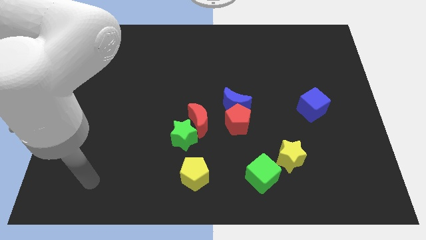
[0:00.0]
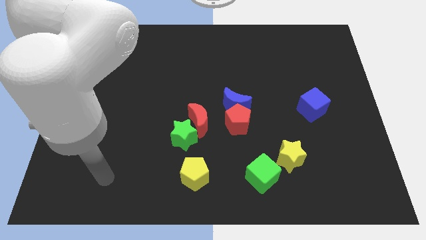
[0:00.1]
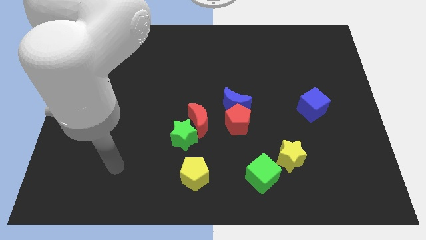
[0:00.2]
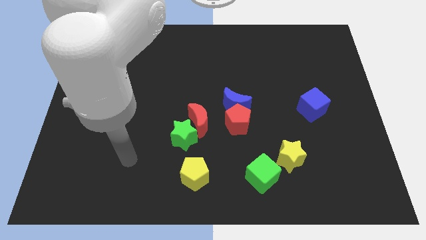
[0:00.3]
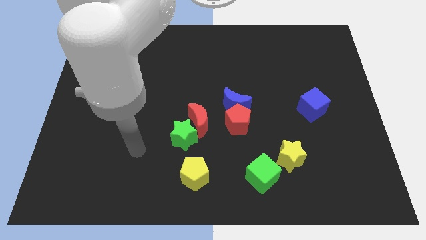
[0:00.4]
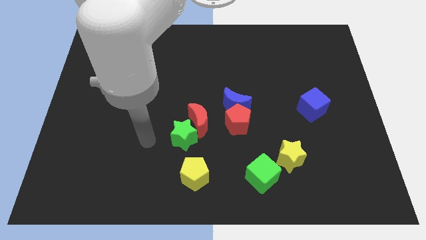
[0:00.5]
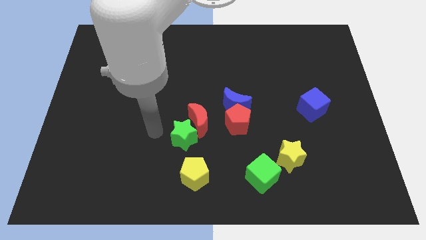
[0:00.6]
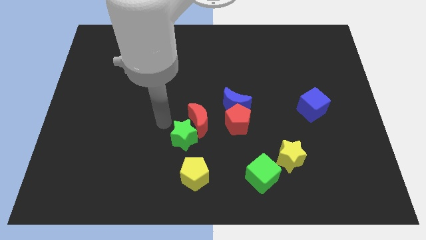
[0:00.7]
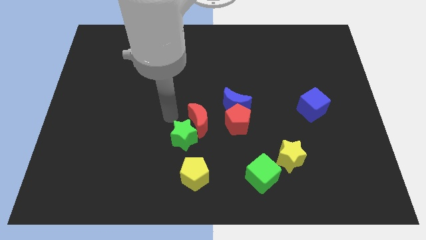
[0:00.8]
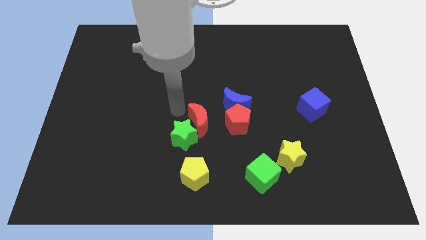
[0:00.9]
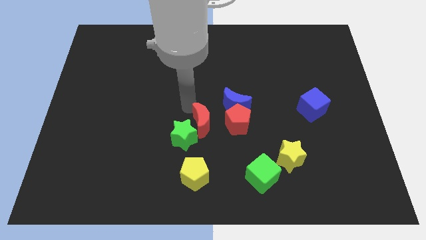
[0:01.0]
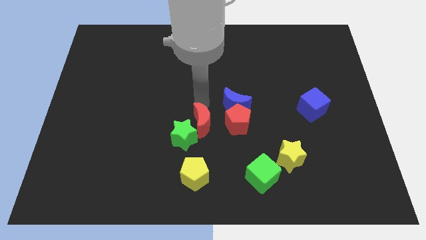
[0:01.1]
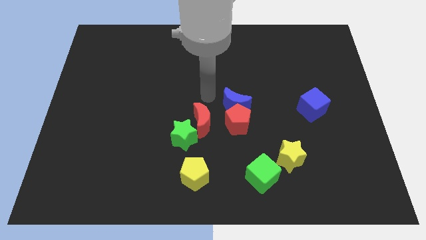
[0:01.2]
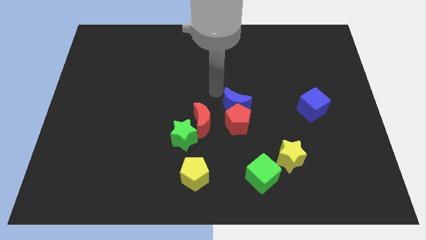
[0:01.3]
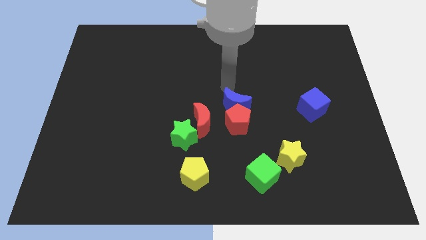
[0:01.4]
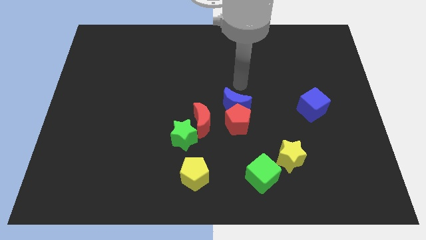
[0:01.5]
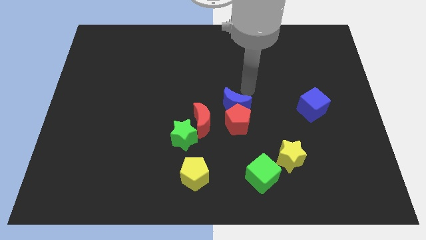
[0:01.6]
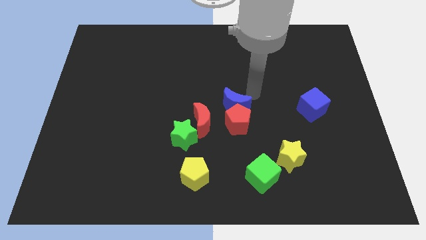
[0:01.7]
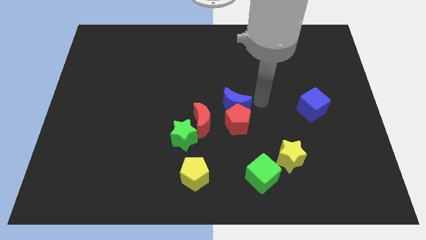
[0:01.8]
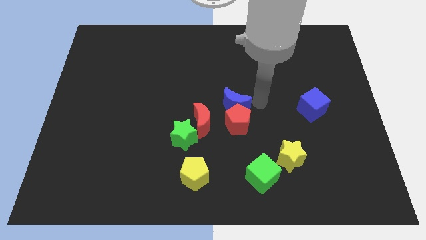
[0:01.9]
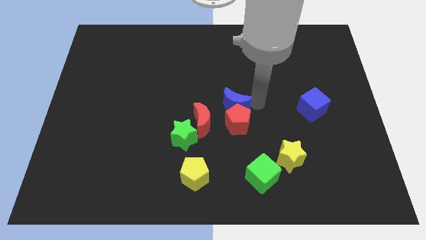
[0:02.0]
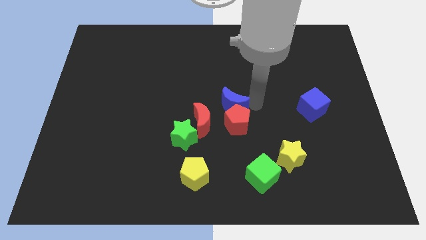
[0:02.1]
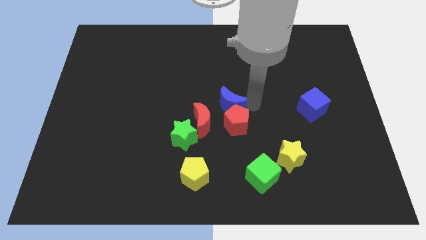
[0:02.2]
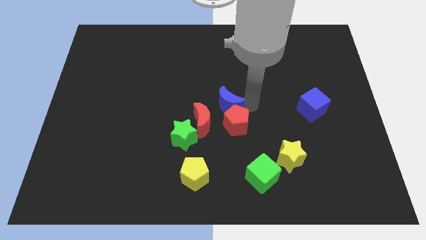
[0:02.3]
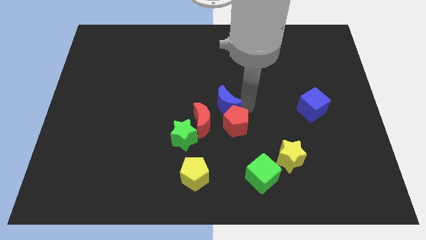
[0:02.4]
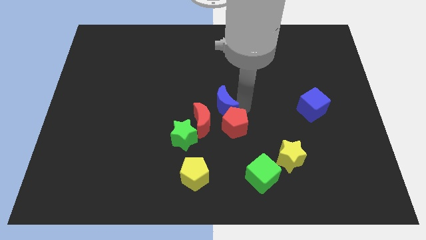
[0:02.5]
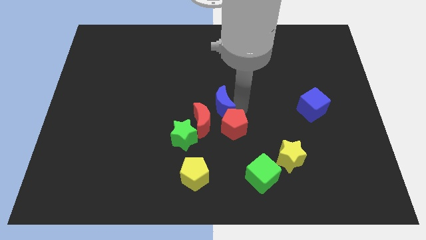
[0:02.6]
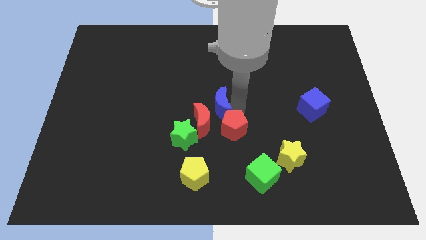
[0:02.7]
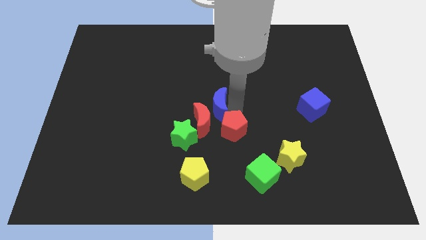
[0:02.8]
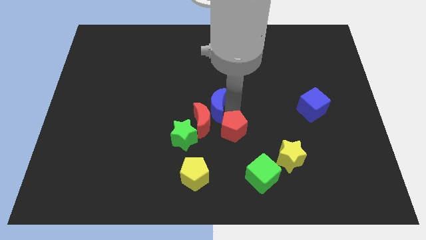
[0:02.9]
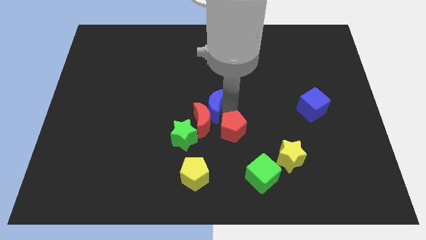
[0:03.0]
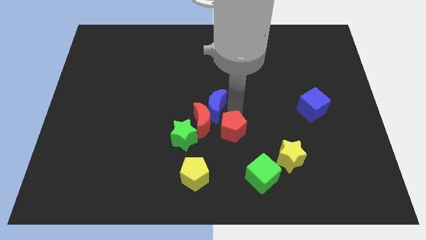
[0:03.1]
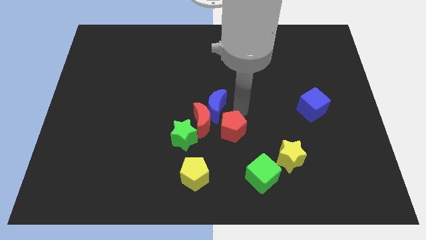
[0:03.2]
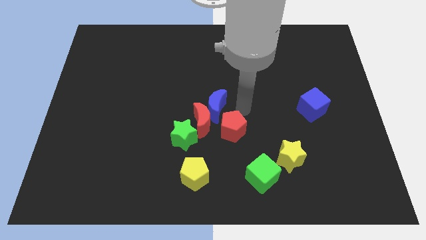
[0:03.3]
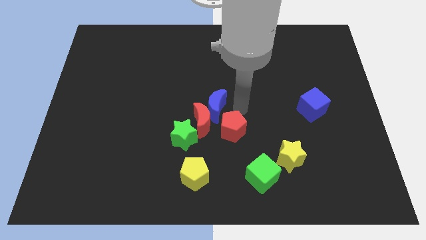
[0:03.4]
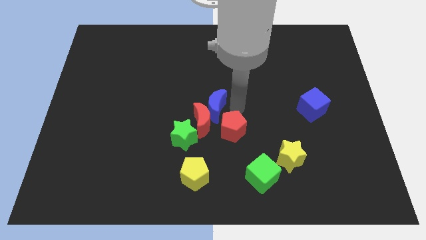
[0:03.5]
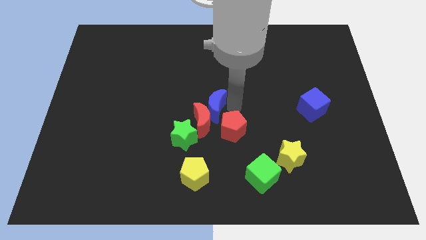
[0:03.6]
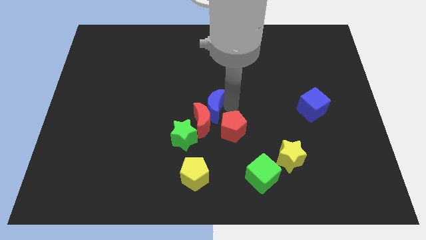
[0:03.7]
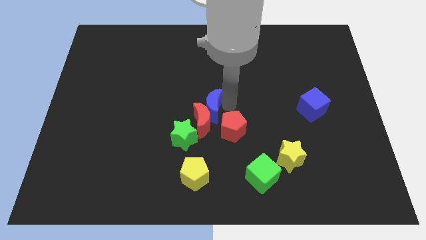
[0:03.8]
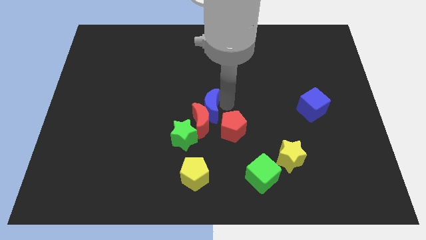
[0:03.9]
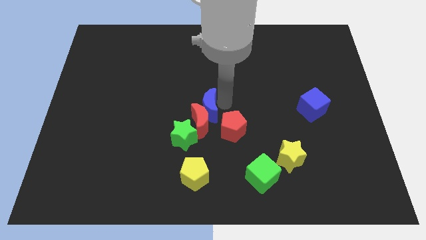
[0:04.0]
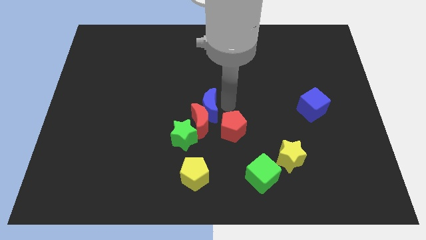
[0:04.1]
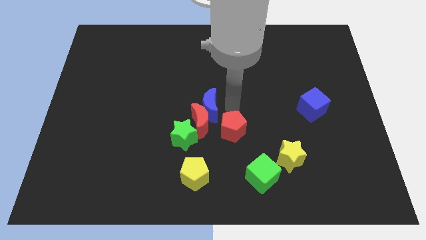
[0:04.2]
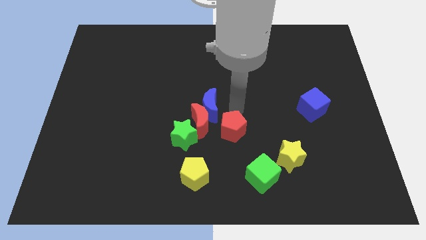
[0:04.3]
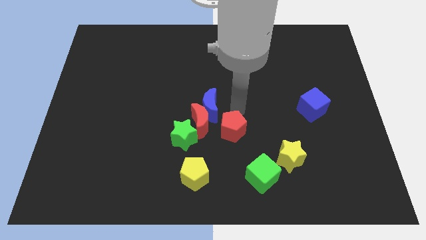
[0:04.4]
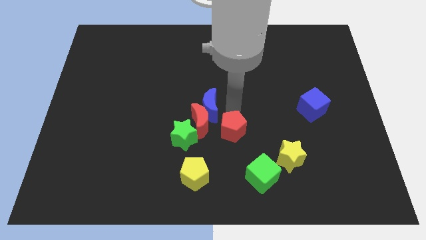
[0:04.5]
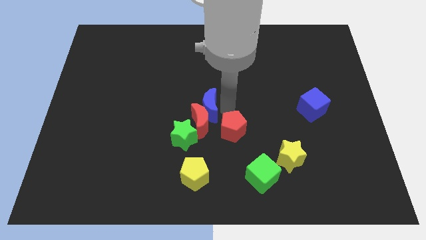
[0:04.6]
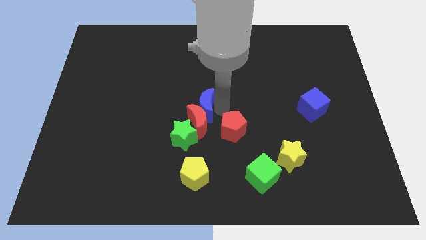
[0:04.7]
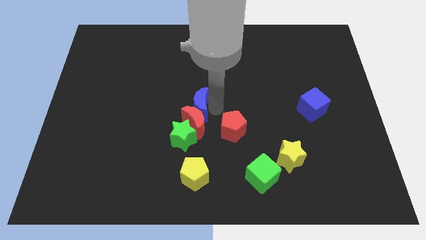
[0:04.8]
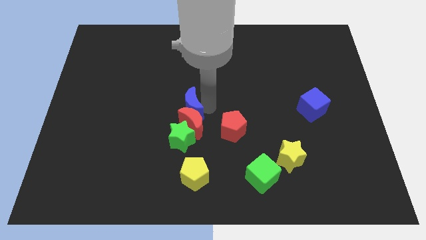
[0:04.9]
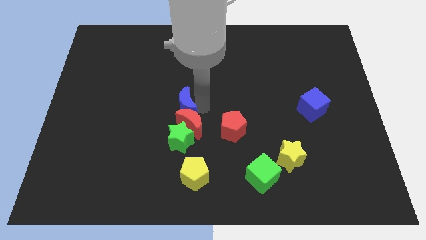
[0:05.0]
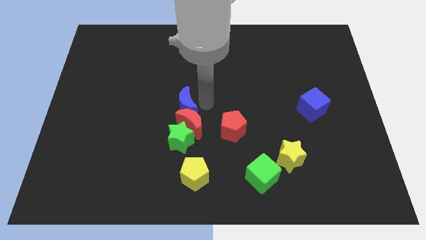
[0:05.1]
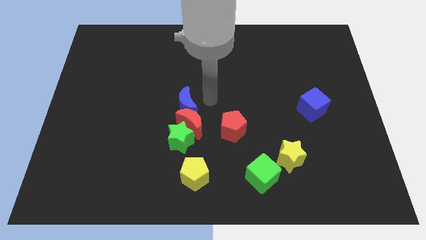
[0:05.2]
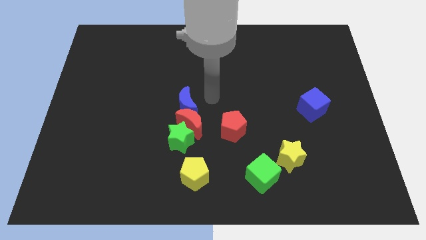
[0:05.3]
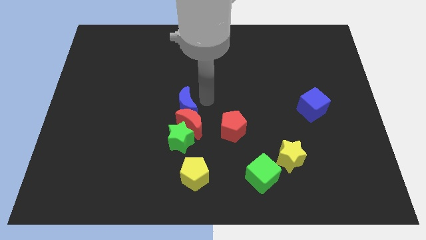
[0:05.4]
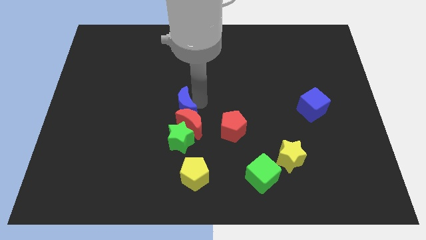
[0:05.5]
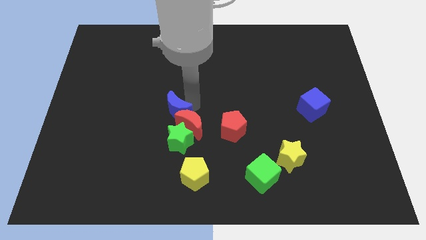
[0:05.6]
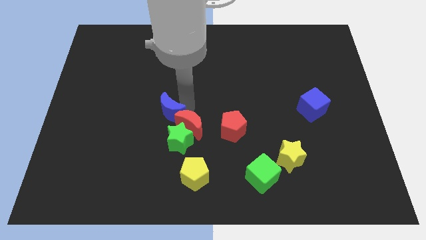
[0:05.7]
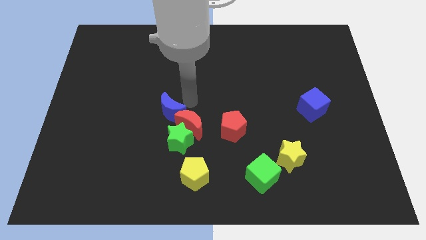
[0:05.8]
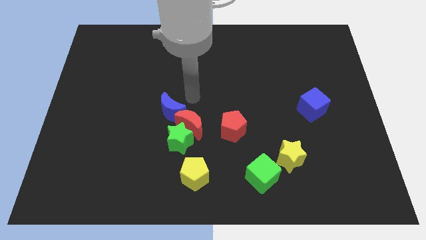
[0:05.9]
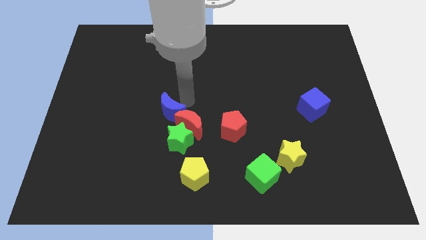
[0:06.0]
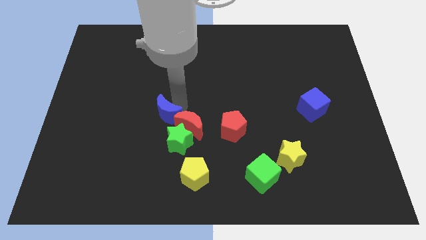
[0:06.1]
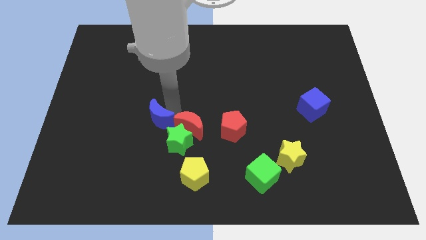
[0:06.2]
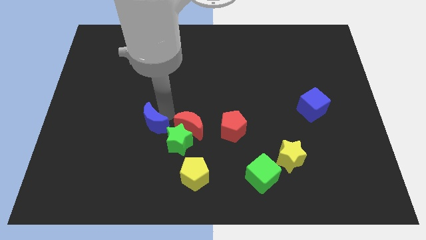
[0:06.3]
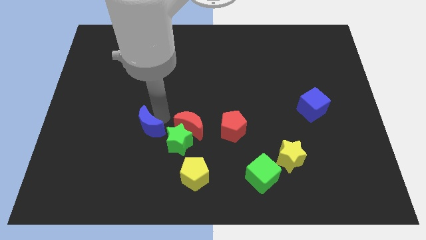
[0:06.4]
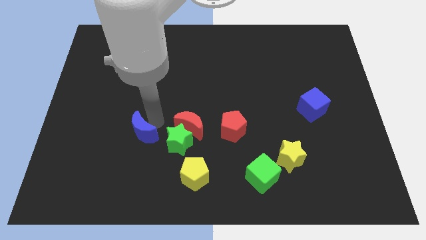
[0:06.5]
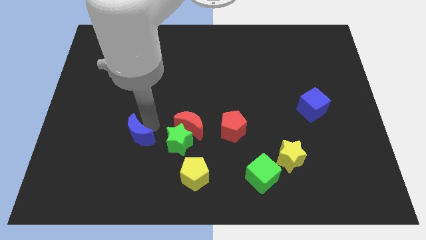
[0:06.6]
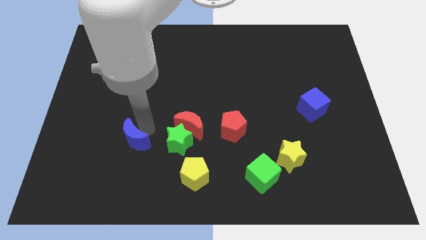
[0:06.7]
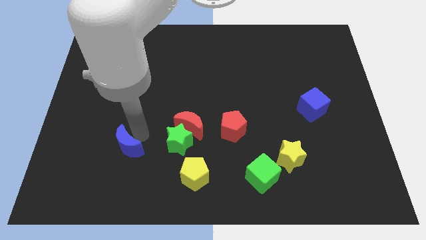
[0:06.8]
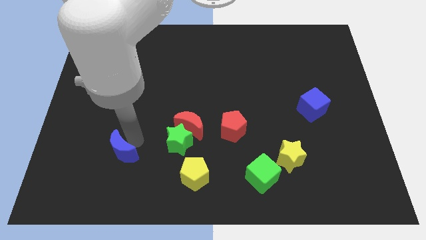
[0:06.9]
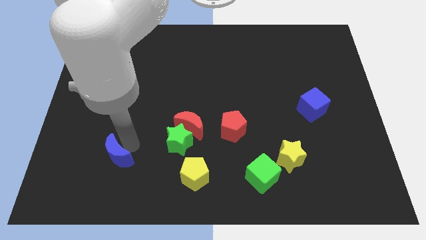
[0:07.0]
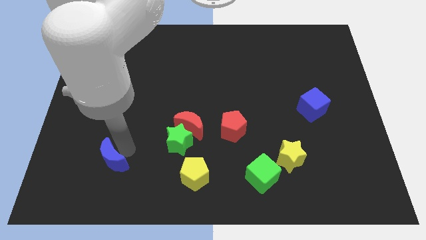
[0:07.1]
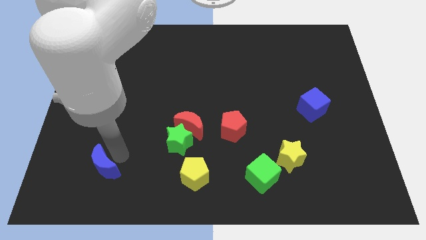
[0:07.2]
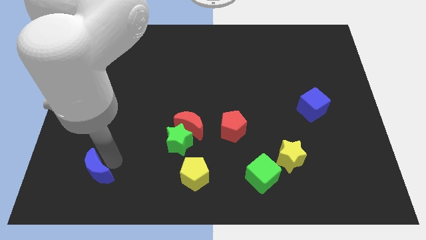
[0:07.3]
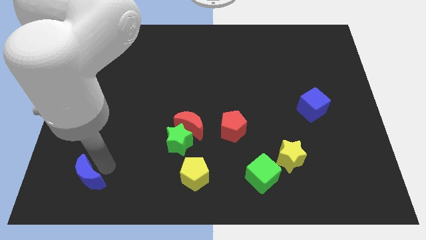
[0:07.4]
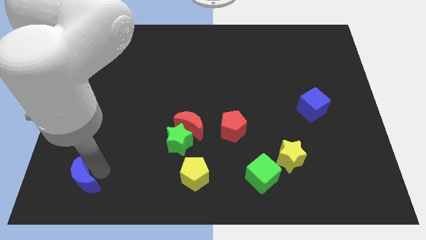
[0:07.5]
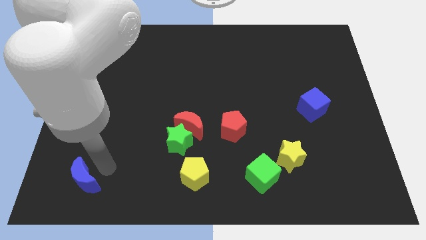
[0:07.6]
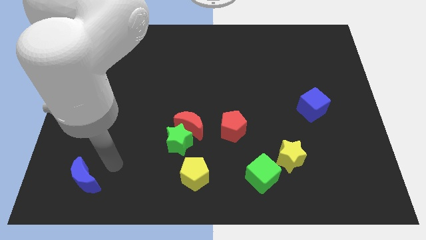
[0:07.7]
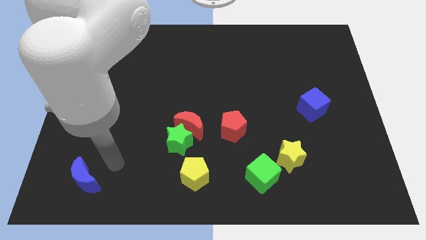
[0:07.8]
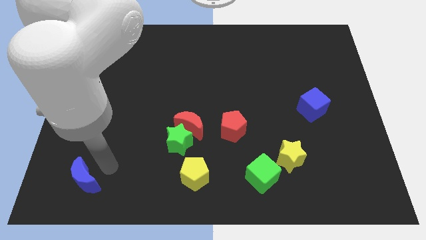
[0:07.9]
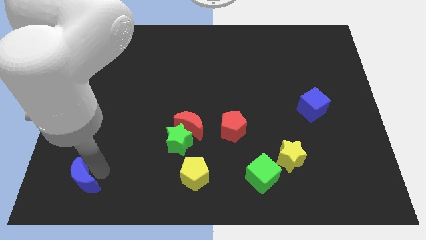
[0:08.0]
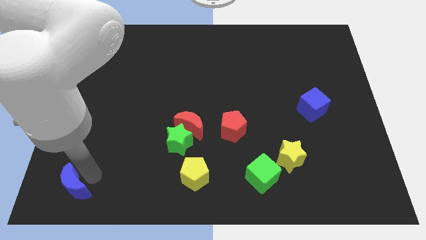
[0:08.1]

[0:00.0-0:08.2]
move the blue moon to the bottom left
